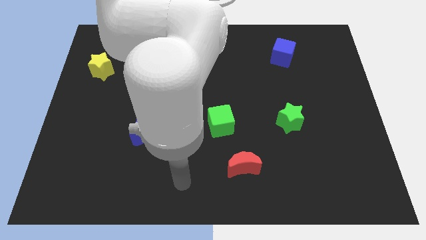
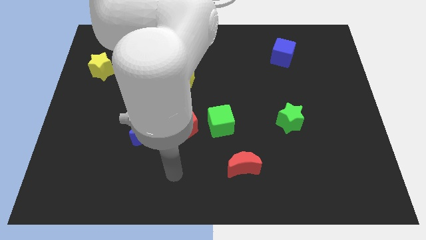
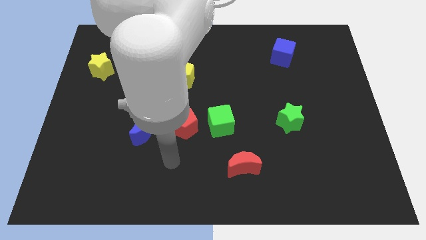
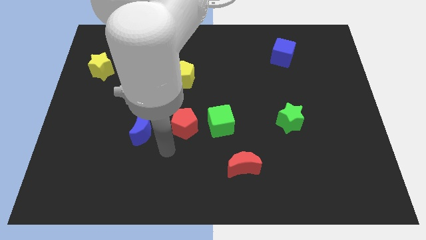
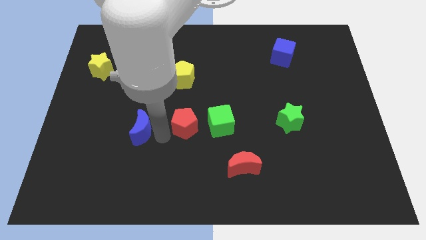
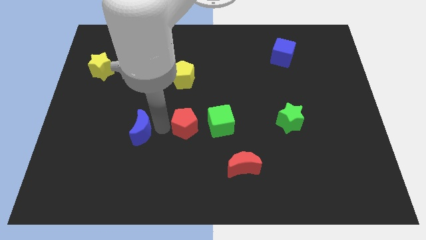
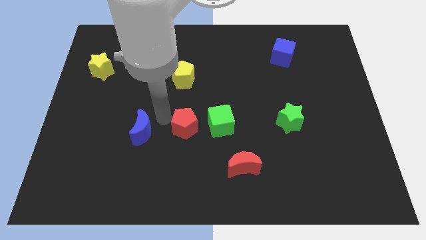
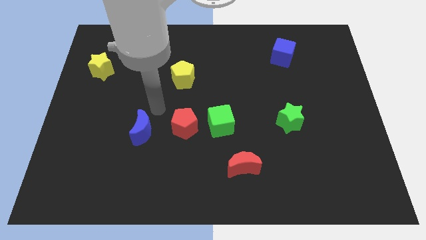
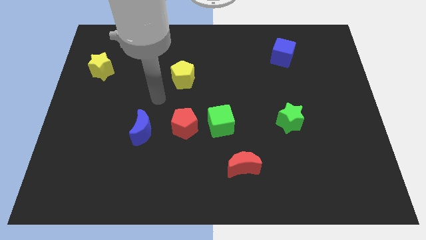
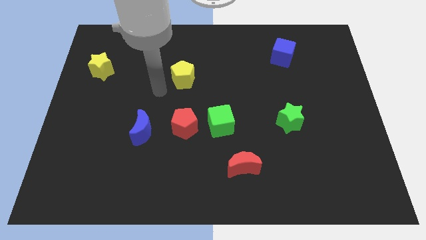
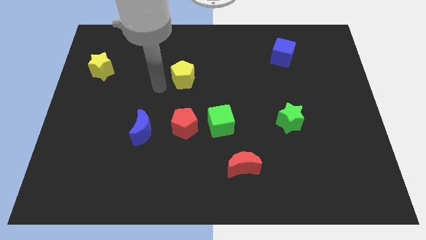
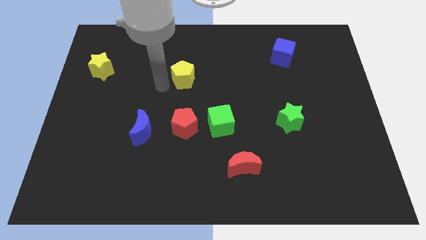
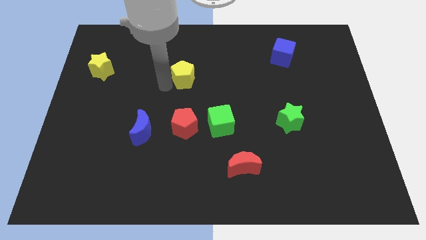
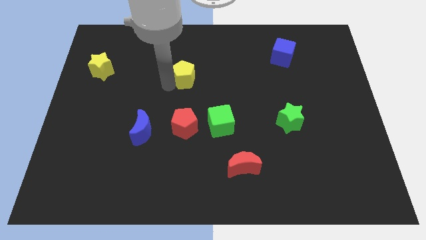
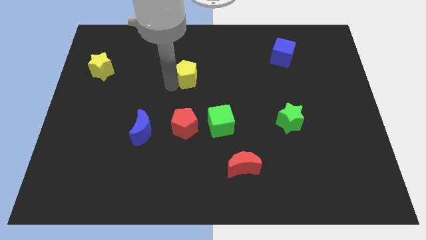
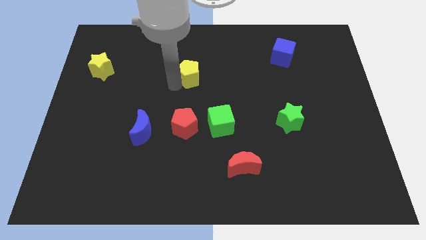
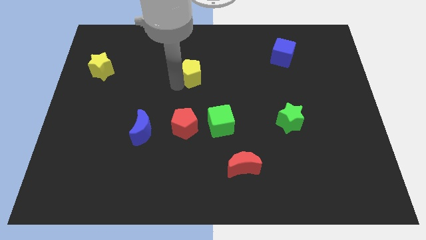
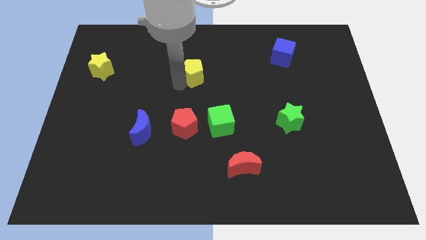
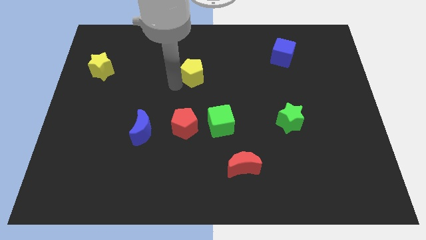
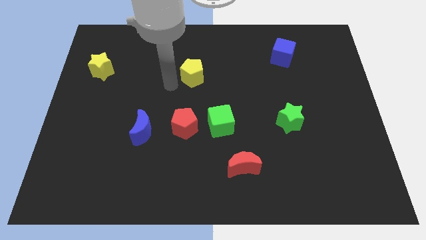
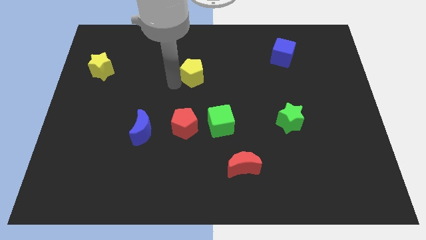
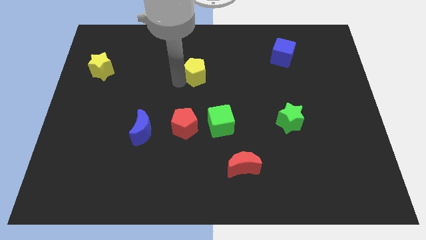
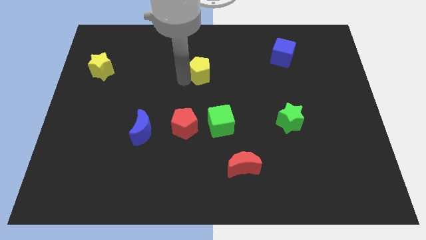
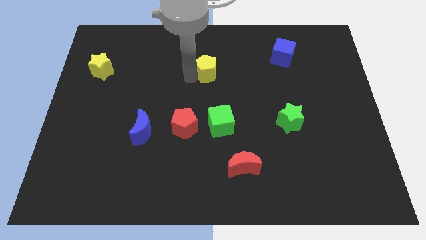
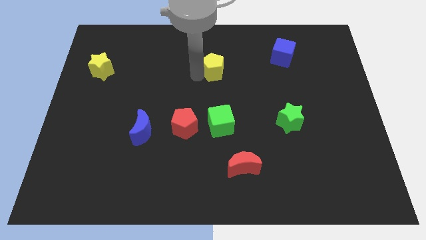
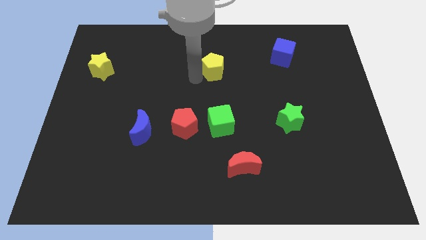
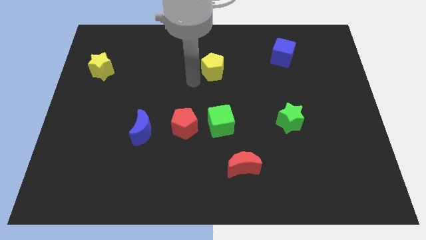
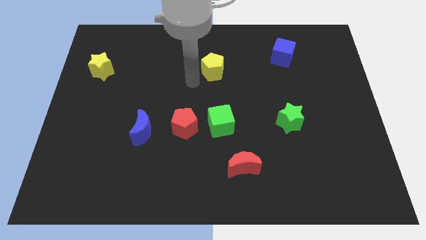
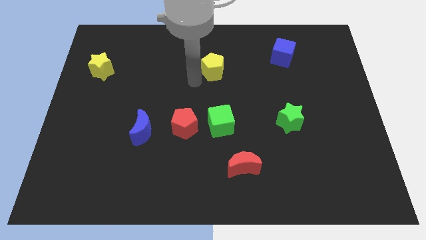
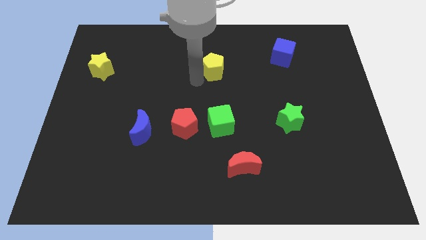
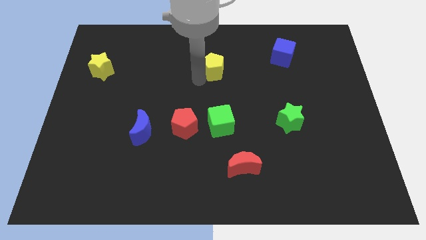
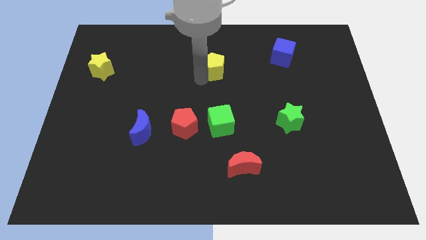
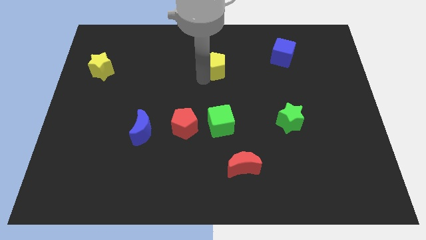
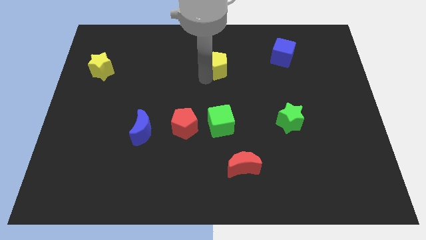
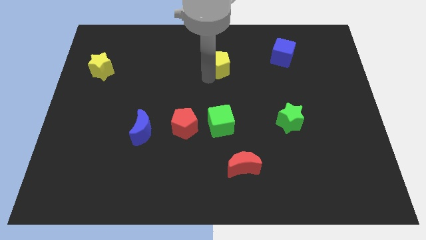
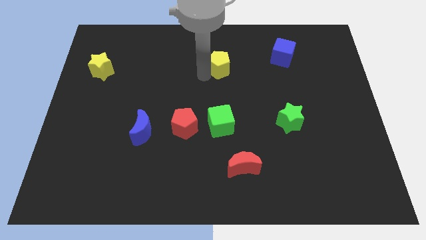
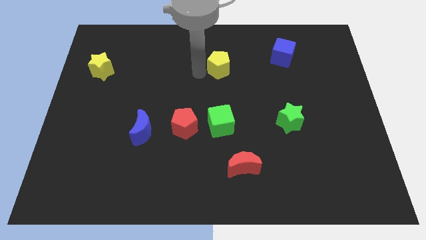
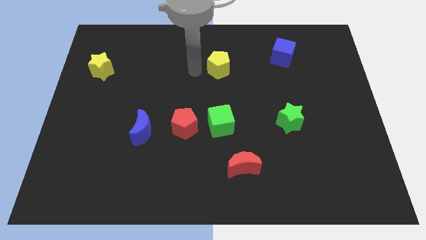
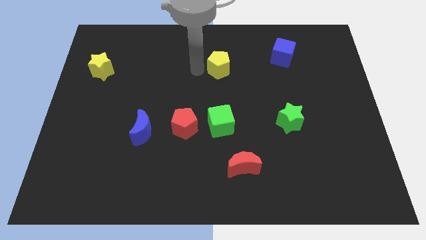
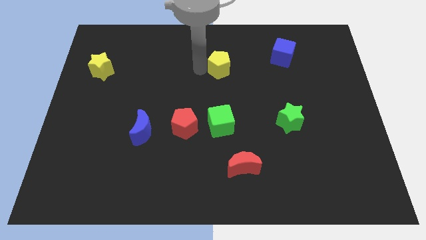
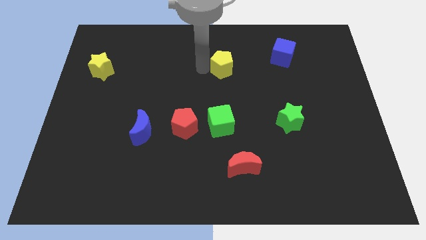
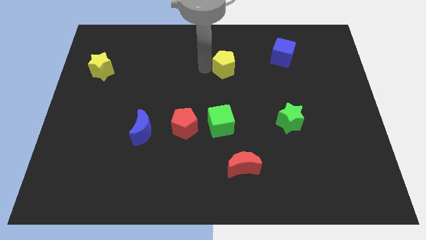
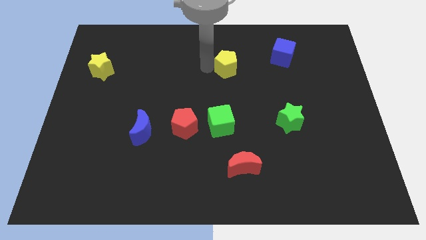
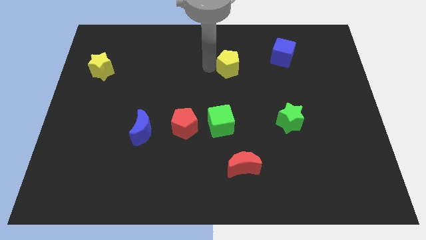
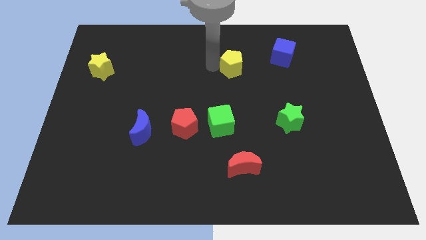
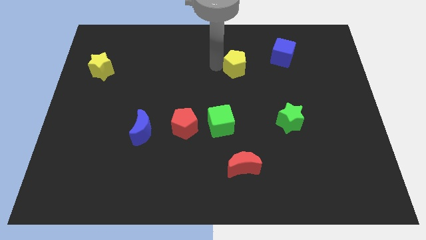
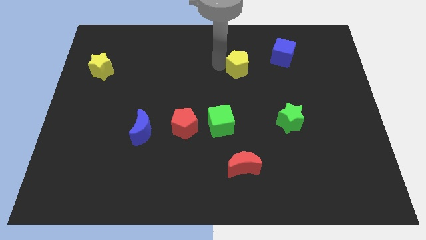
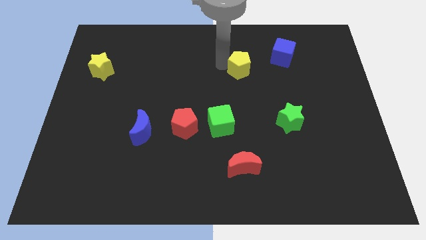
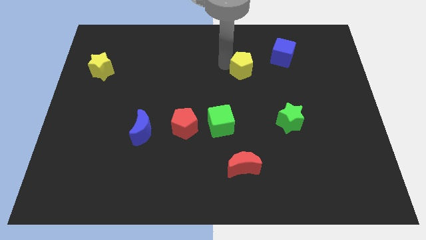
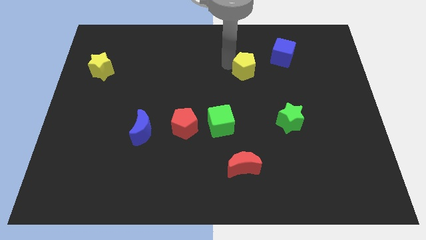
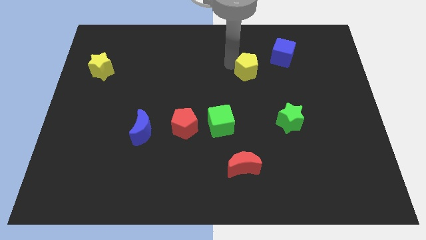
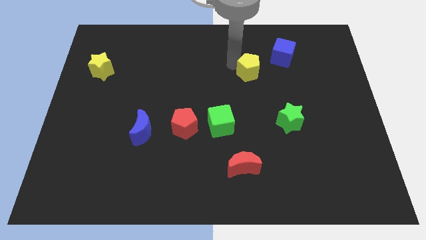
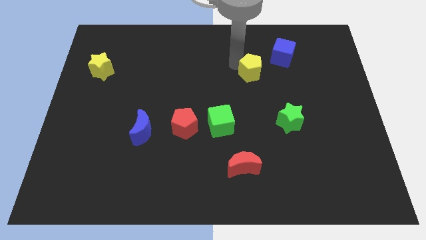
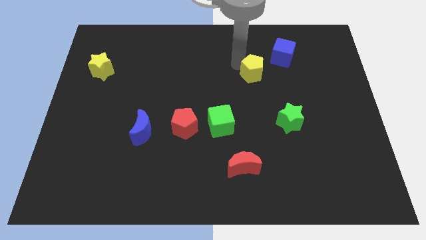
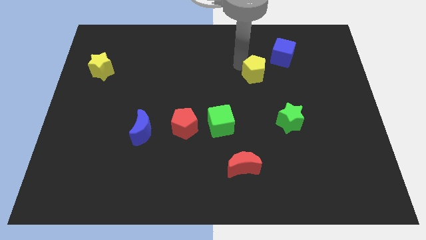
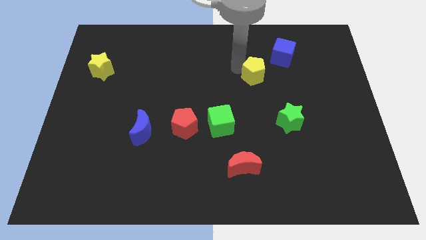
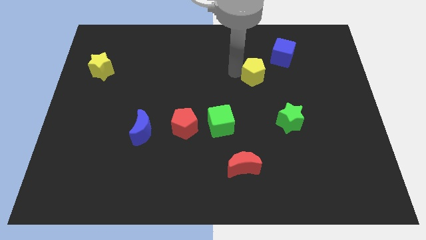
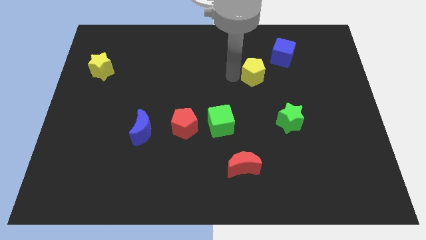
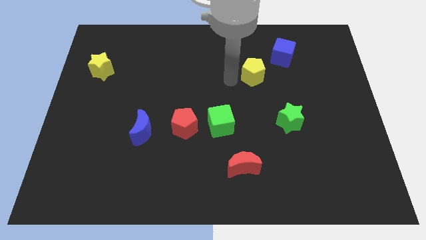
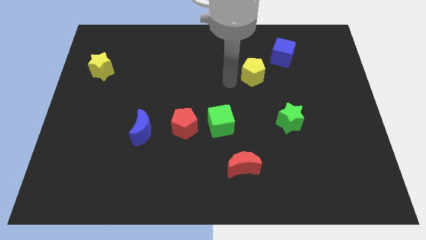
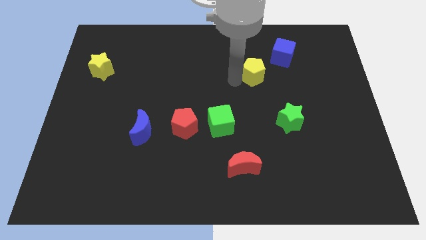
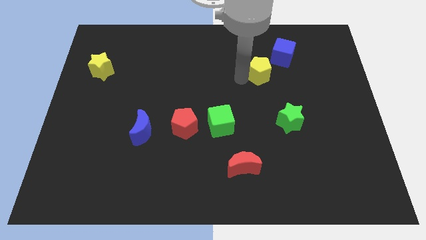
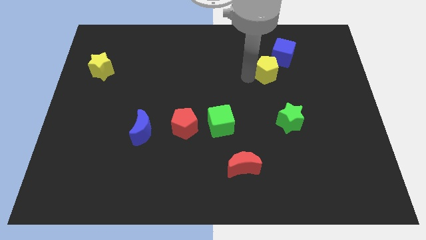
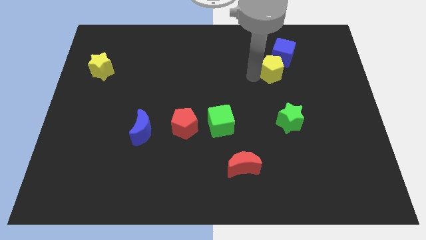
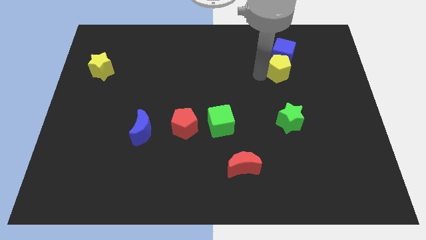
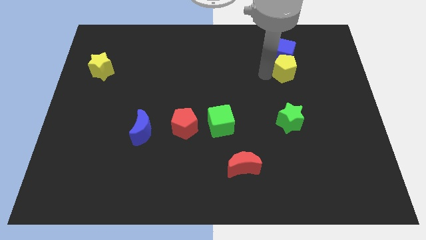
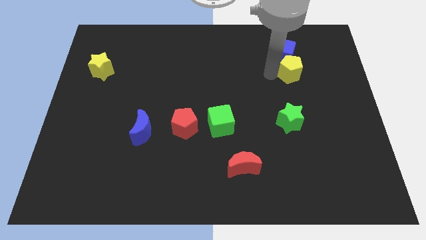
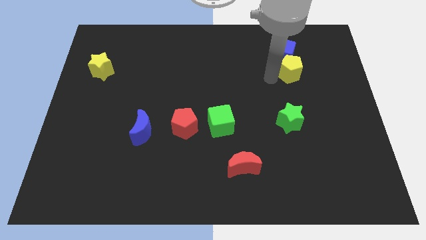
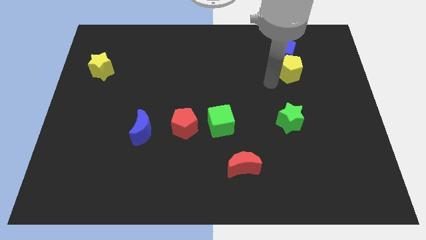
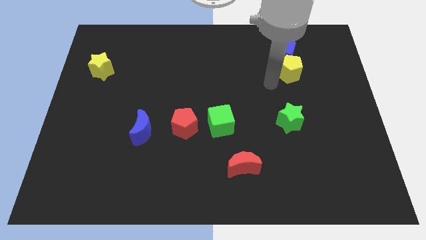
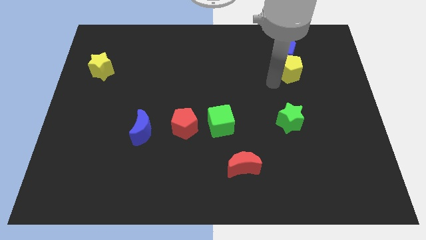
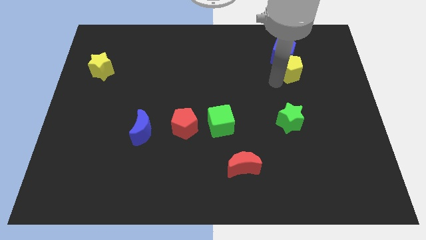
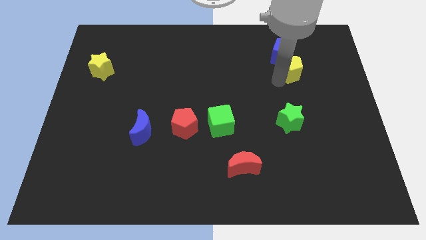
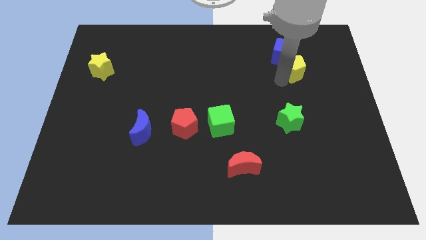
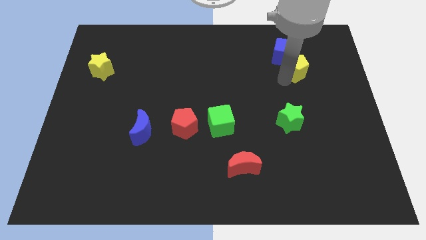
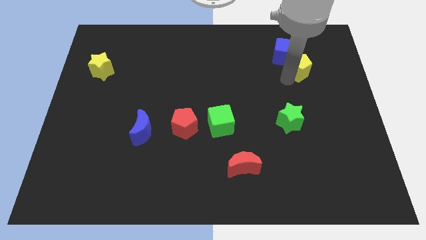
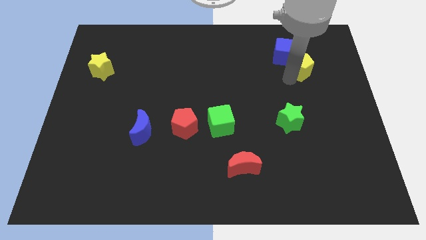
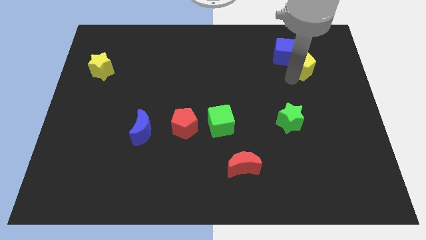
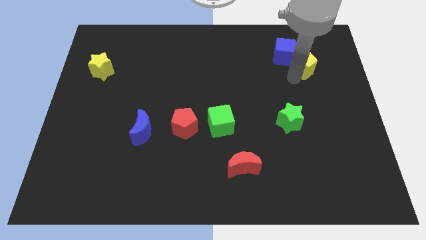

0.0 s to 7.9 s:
push the yellow pentagon just right of the blue cube
